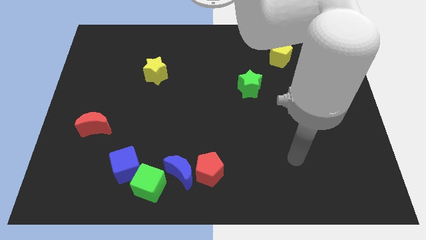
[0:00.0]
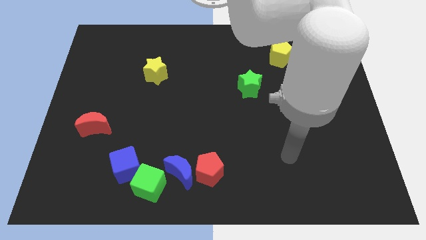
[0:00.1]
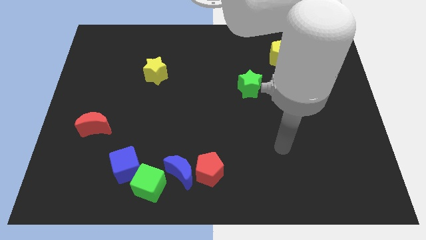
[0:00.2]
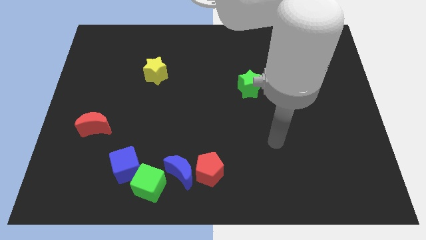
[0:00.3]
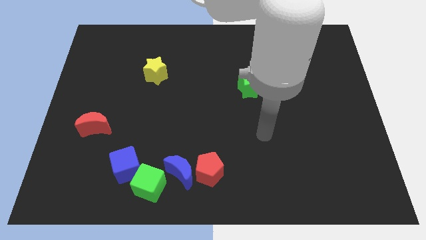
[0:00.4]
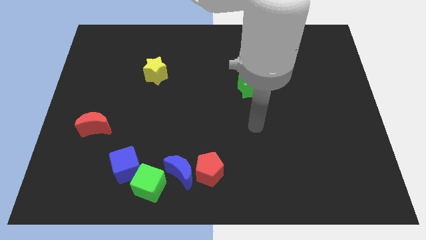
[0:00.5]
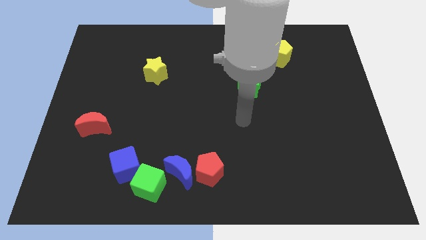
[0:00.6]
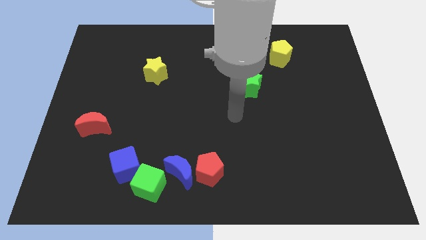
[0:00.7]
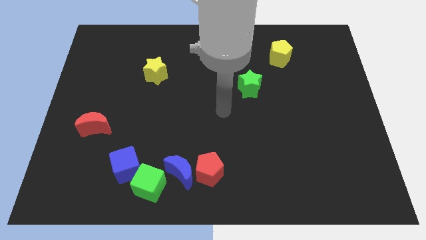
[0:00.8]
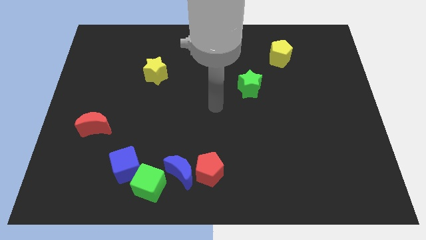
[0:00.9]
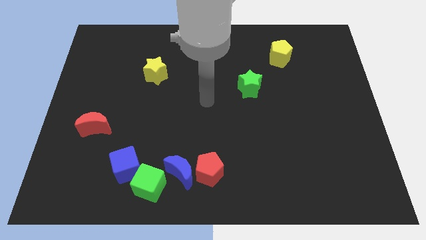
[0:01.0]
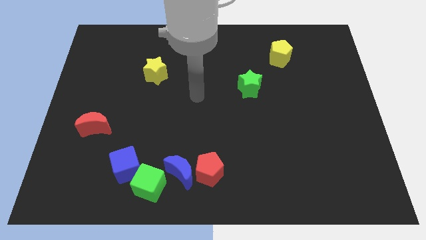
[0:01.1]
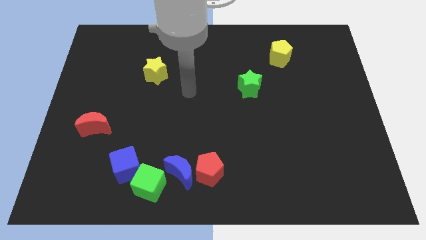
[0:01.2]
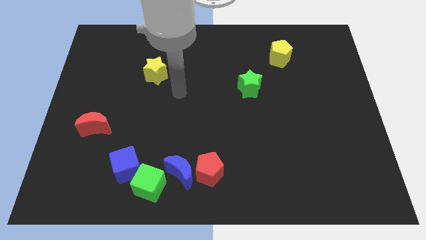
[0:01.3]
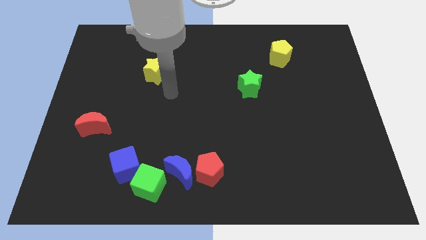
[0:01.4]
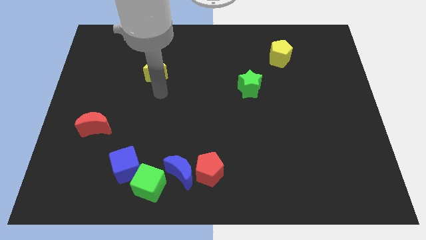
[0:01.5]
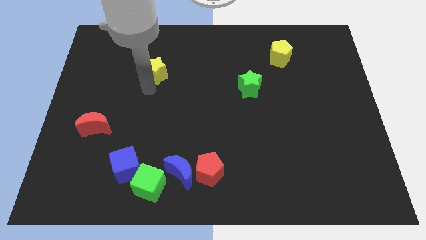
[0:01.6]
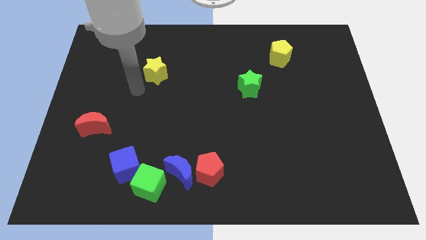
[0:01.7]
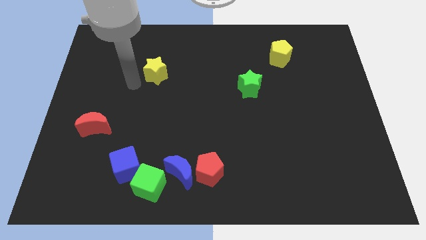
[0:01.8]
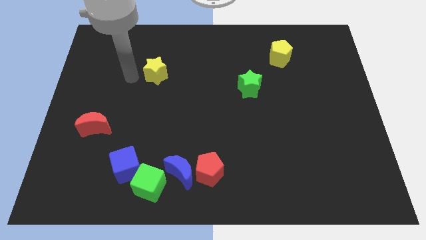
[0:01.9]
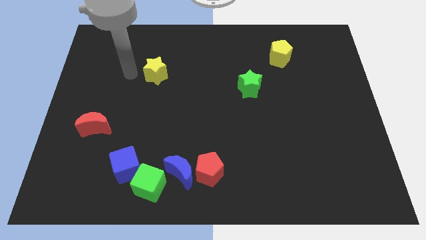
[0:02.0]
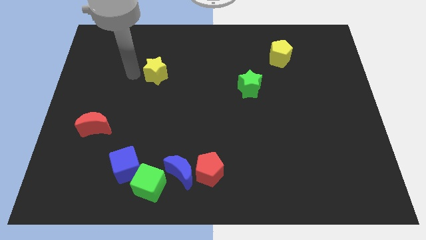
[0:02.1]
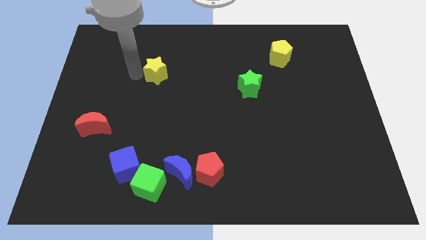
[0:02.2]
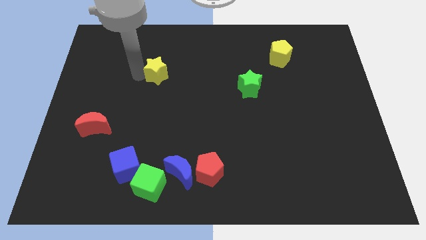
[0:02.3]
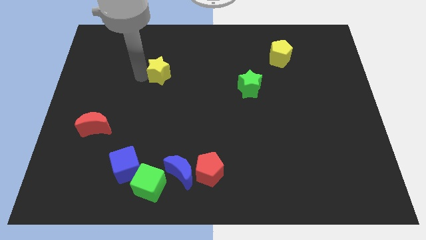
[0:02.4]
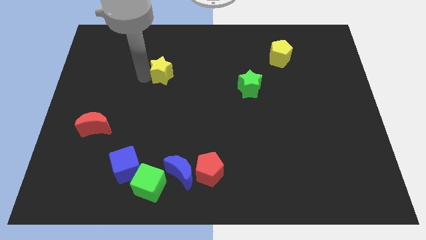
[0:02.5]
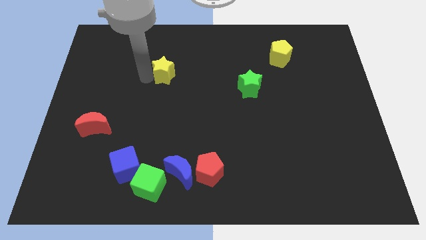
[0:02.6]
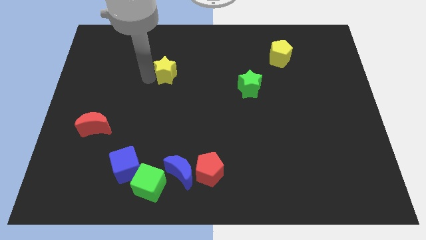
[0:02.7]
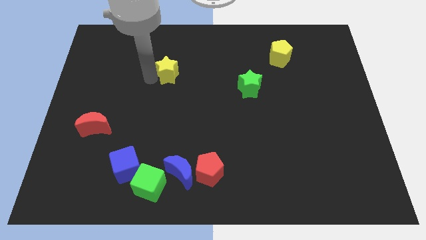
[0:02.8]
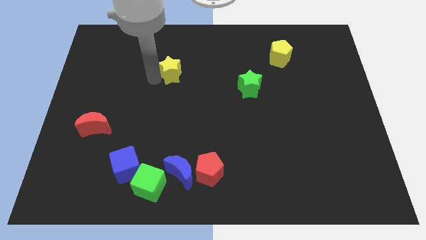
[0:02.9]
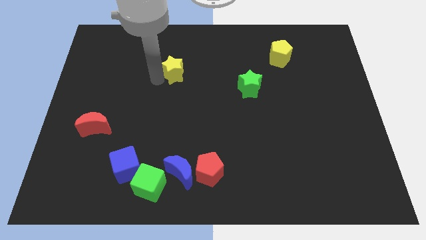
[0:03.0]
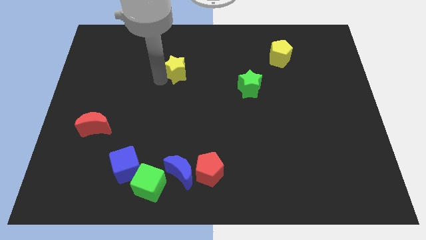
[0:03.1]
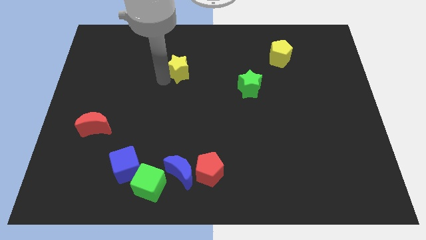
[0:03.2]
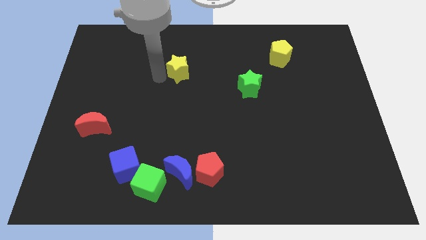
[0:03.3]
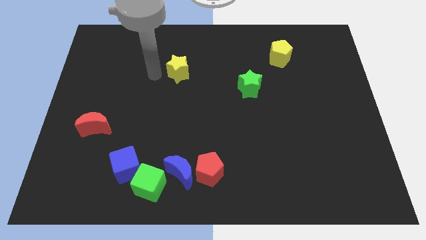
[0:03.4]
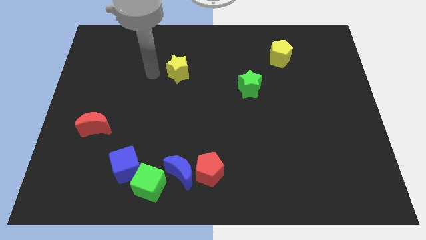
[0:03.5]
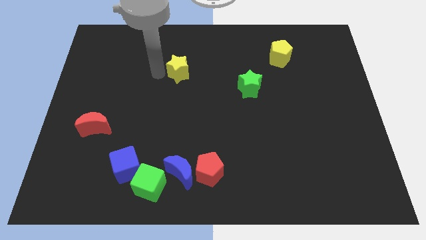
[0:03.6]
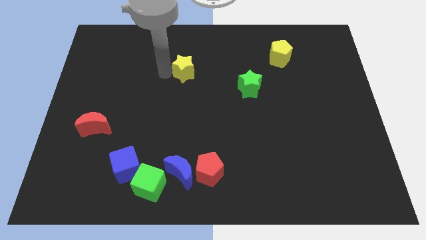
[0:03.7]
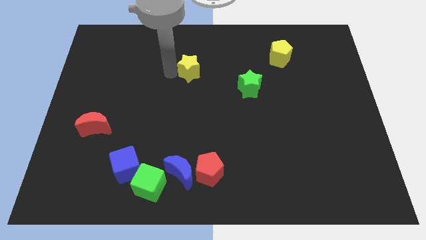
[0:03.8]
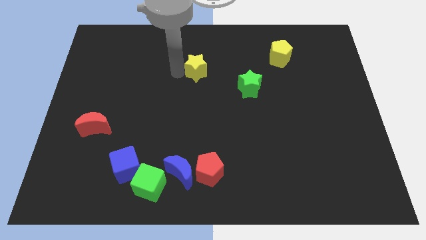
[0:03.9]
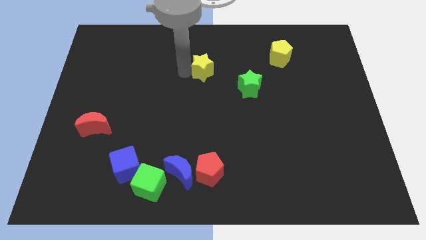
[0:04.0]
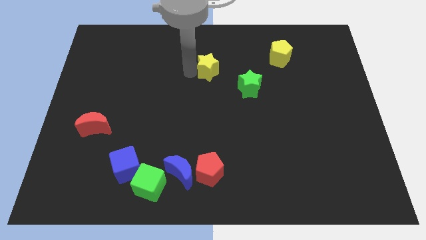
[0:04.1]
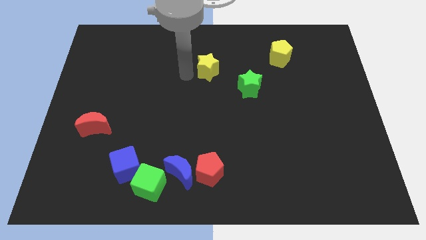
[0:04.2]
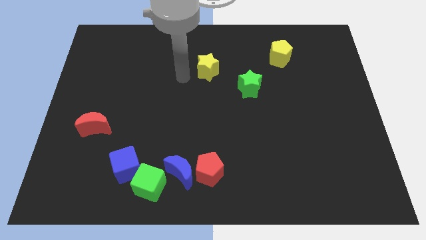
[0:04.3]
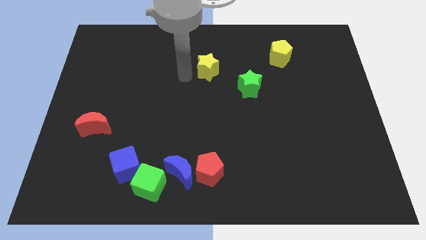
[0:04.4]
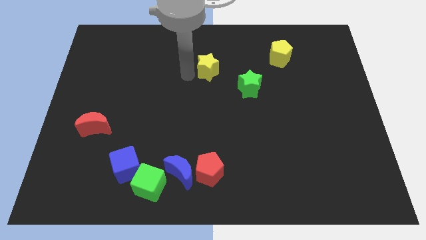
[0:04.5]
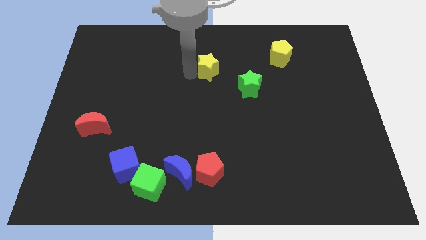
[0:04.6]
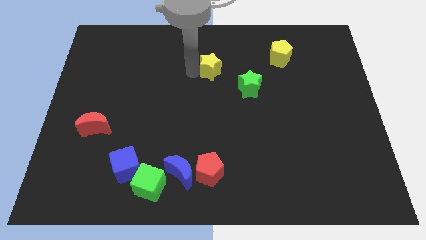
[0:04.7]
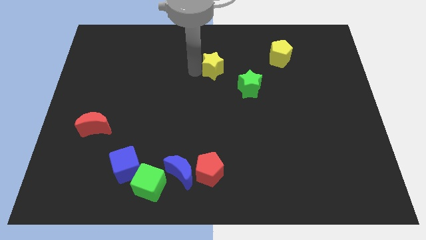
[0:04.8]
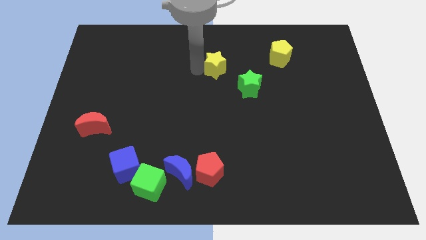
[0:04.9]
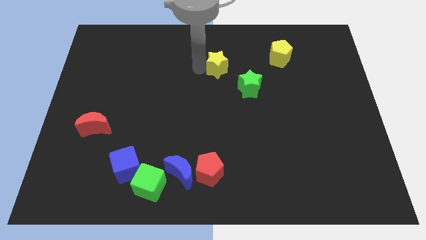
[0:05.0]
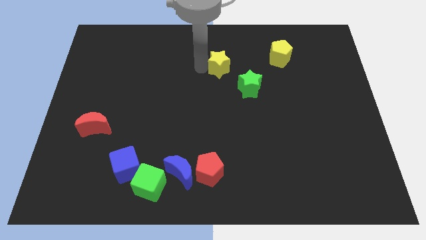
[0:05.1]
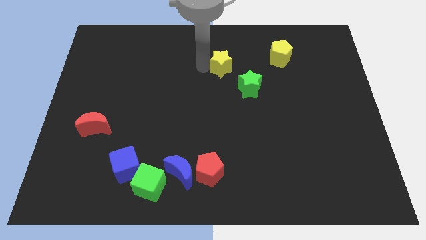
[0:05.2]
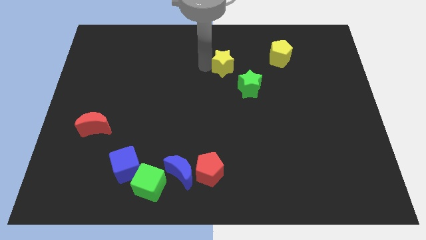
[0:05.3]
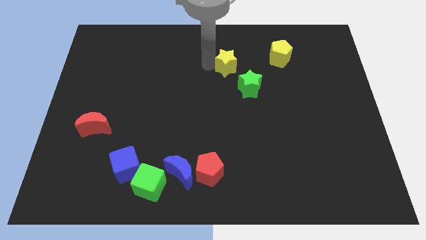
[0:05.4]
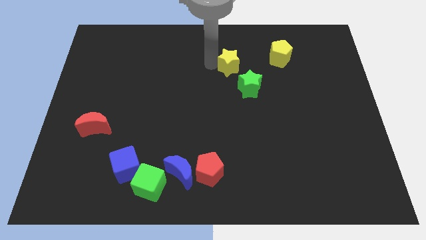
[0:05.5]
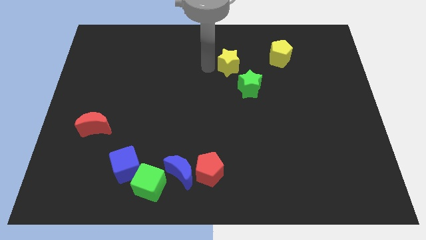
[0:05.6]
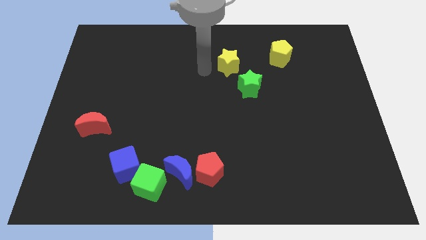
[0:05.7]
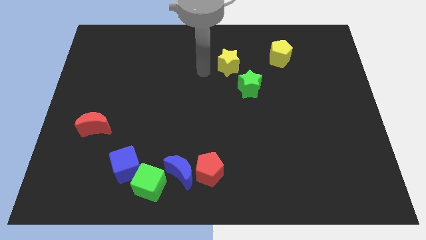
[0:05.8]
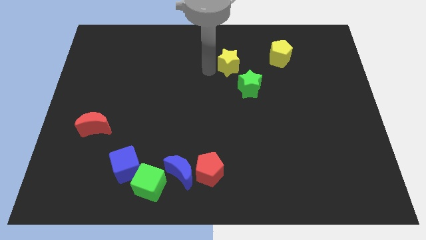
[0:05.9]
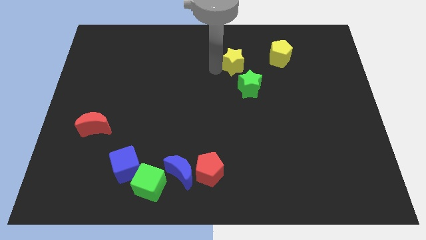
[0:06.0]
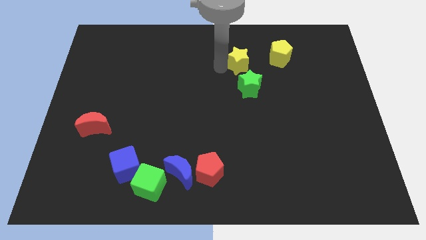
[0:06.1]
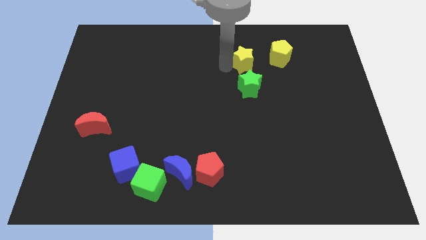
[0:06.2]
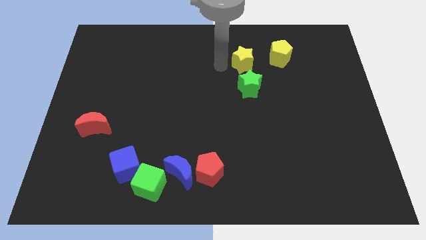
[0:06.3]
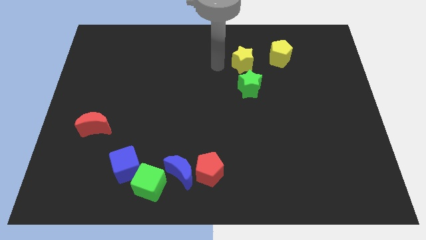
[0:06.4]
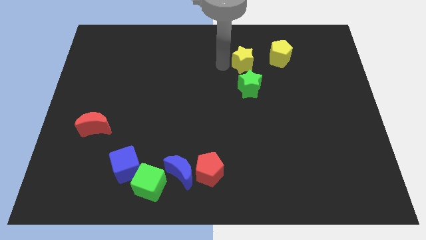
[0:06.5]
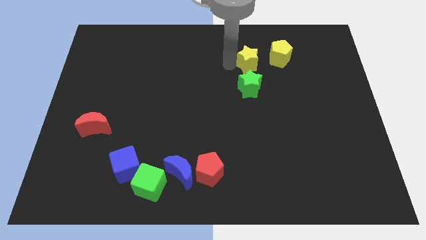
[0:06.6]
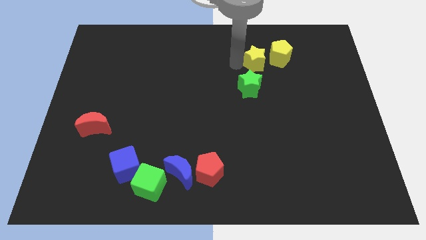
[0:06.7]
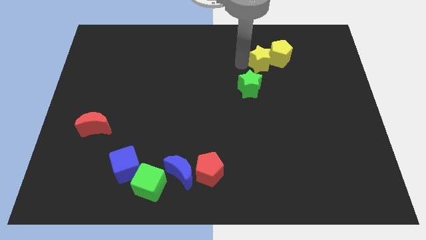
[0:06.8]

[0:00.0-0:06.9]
move the yellow star to the yellow pentagon
